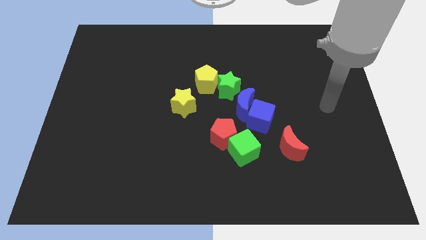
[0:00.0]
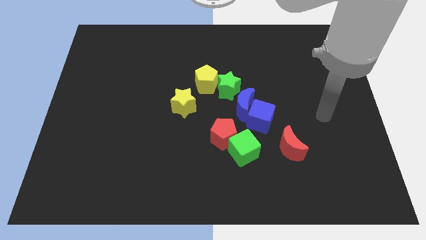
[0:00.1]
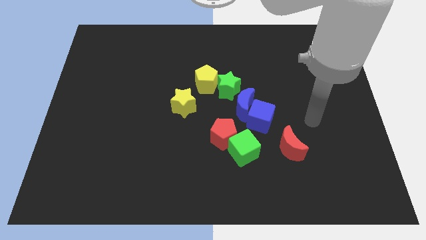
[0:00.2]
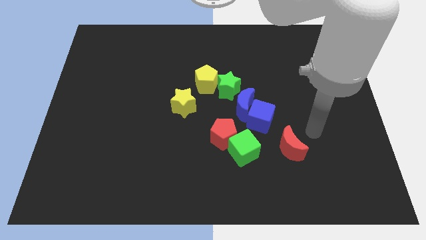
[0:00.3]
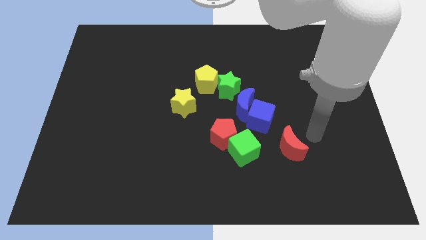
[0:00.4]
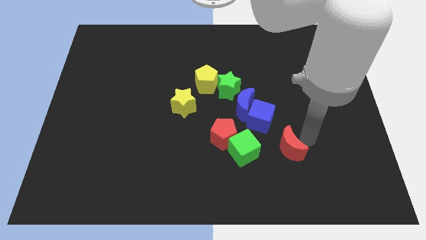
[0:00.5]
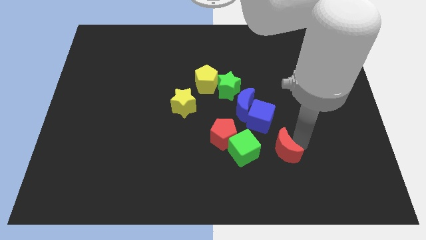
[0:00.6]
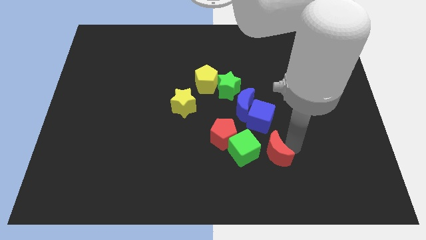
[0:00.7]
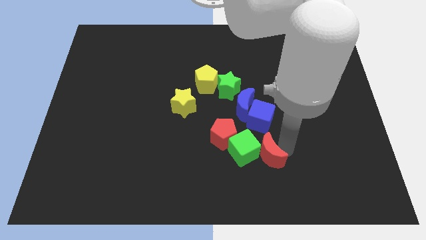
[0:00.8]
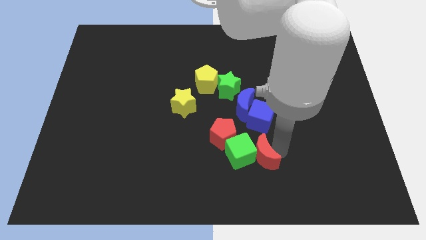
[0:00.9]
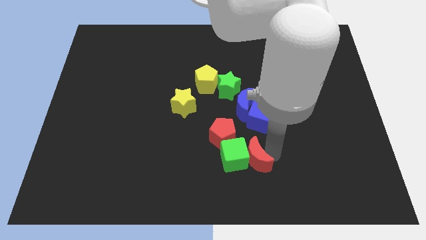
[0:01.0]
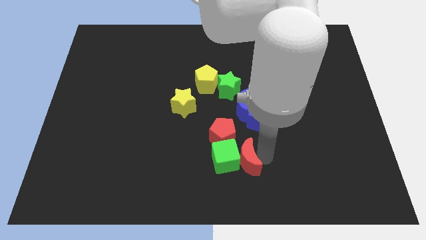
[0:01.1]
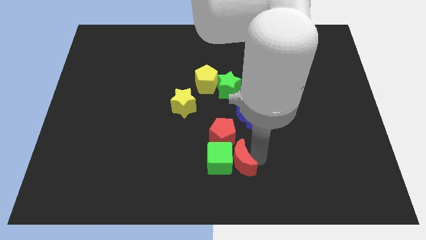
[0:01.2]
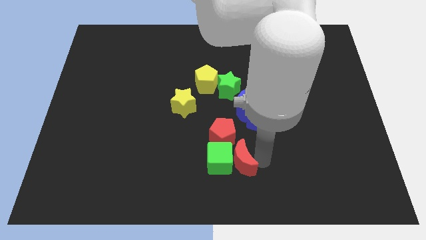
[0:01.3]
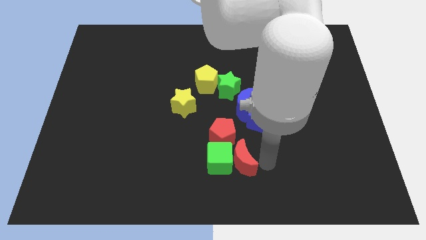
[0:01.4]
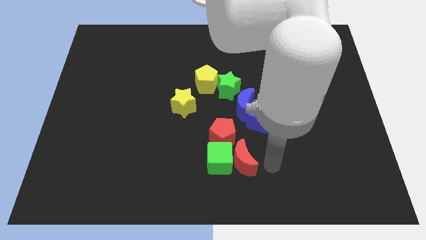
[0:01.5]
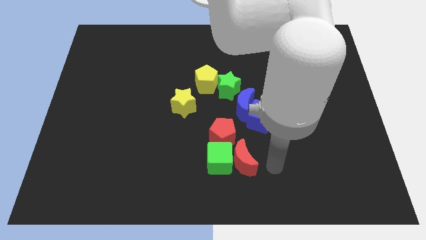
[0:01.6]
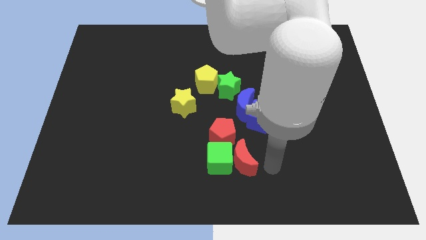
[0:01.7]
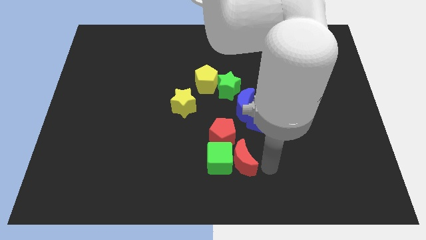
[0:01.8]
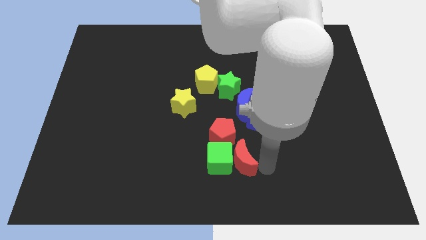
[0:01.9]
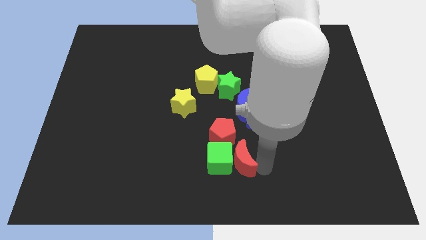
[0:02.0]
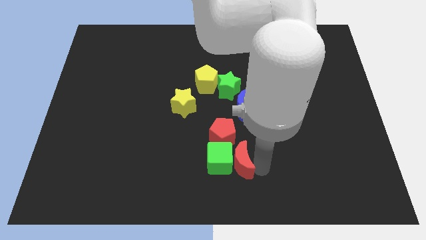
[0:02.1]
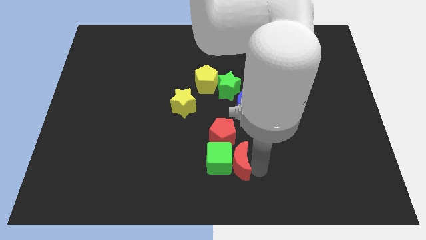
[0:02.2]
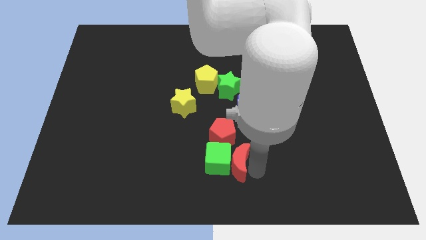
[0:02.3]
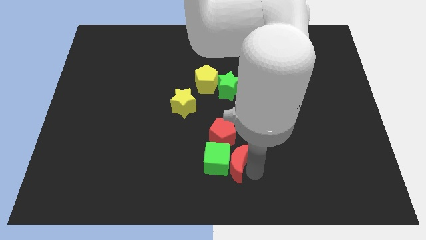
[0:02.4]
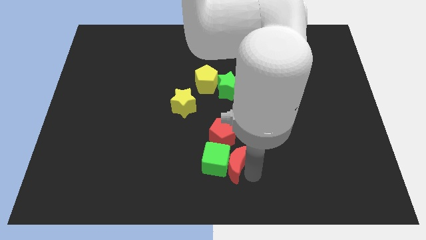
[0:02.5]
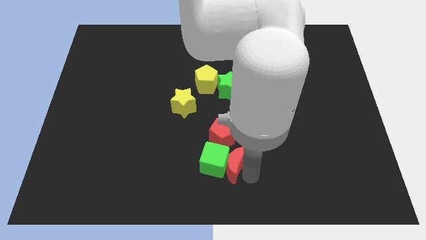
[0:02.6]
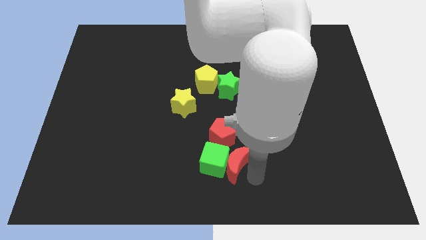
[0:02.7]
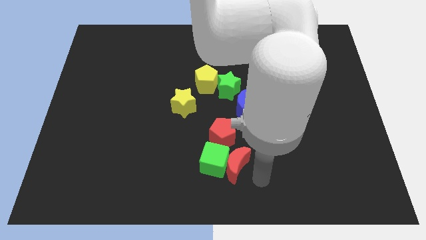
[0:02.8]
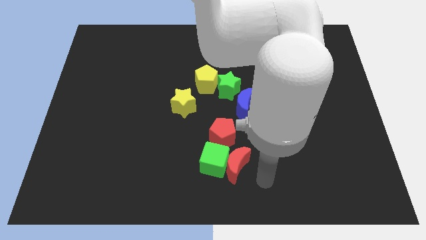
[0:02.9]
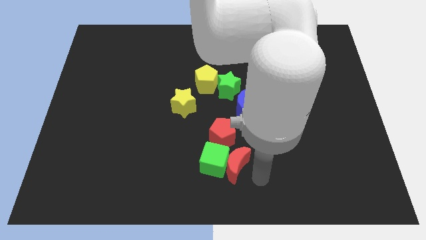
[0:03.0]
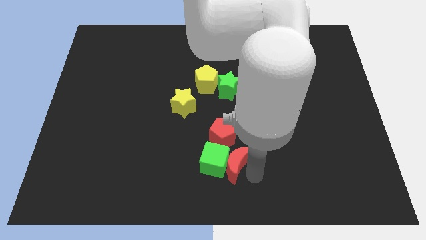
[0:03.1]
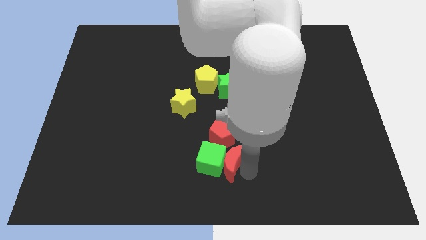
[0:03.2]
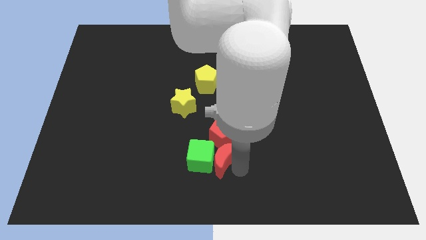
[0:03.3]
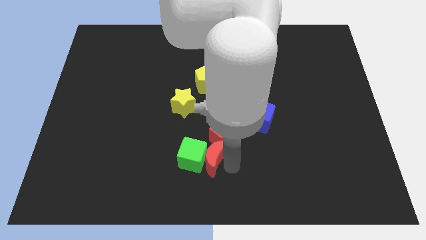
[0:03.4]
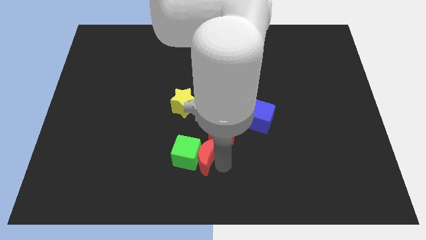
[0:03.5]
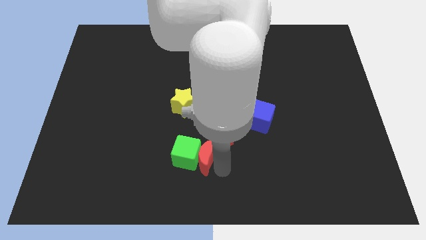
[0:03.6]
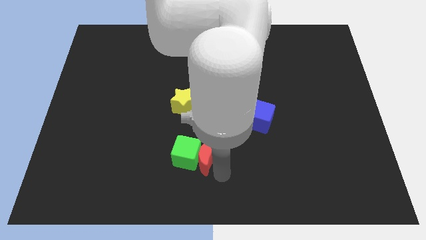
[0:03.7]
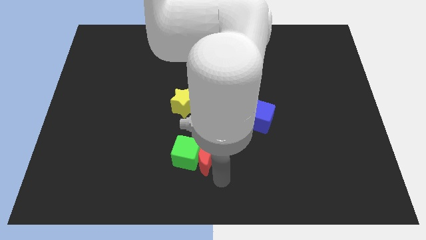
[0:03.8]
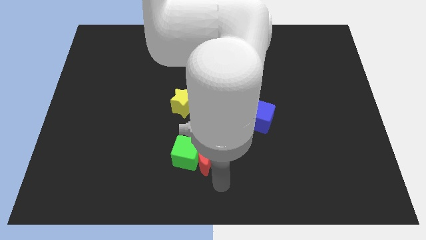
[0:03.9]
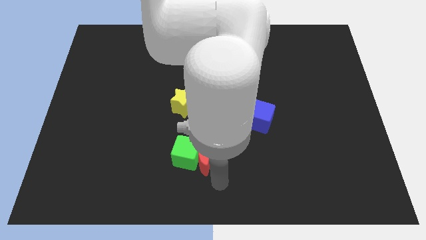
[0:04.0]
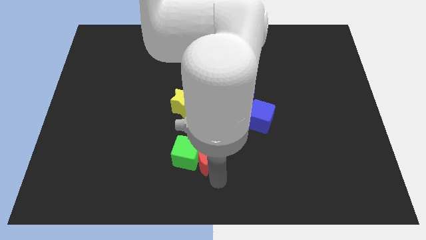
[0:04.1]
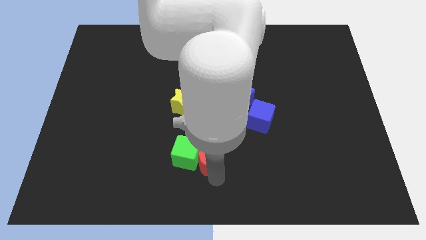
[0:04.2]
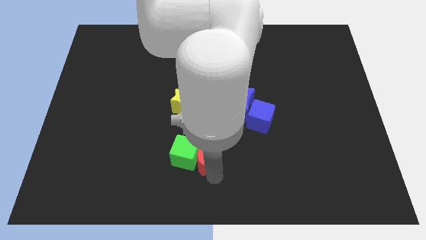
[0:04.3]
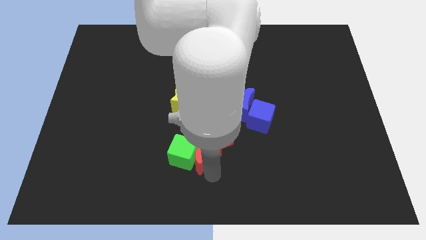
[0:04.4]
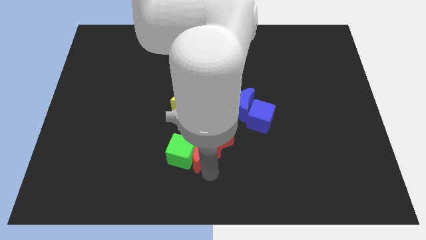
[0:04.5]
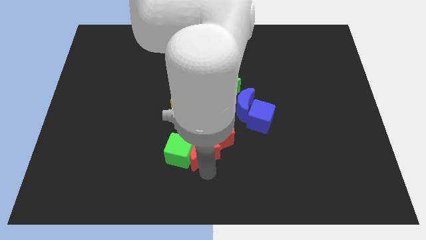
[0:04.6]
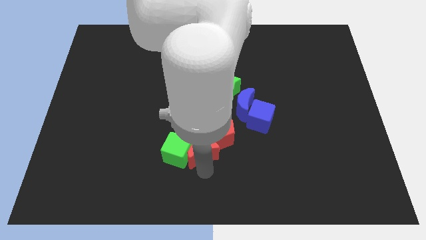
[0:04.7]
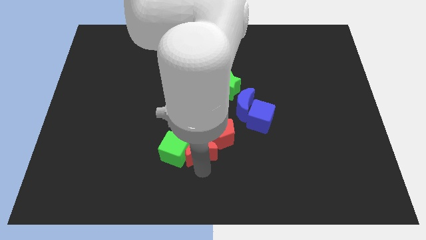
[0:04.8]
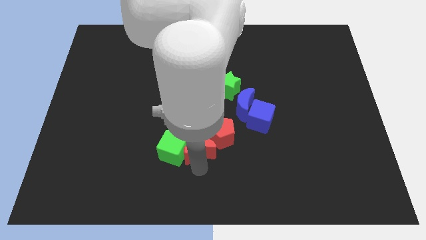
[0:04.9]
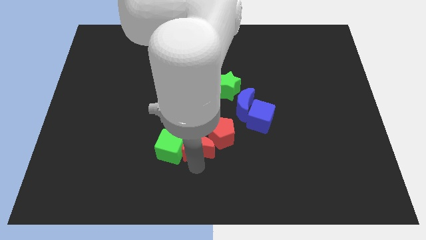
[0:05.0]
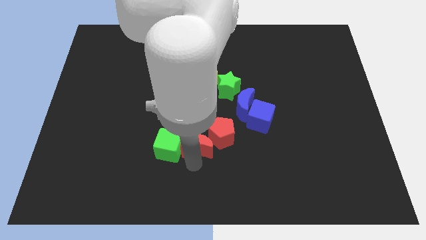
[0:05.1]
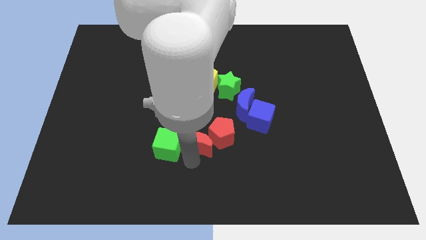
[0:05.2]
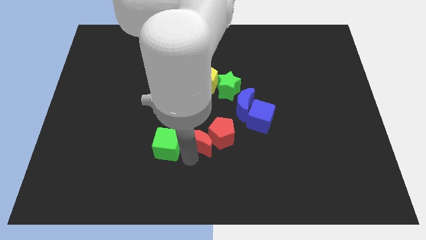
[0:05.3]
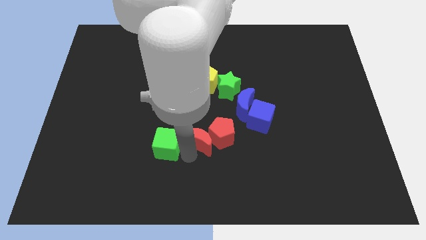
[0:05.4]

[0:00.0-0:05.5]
put the red moon to the center
